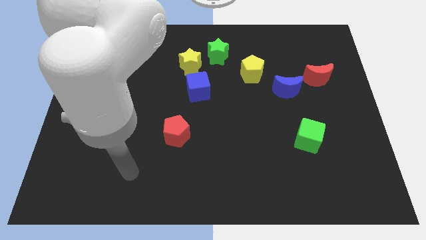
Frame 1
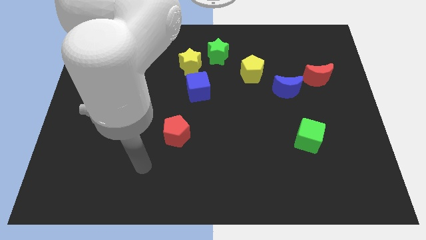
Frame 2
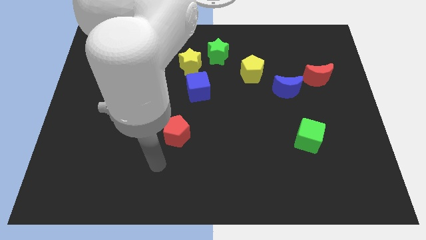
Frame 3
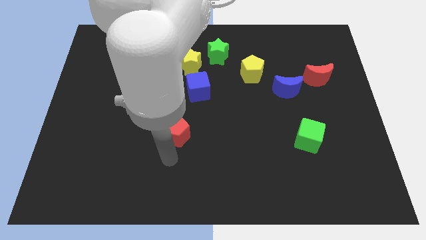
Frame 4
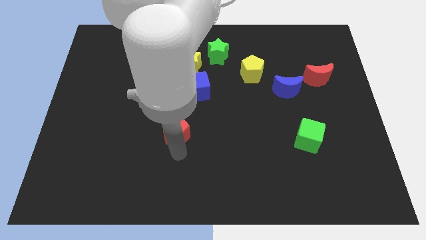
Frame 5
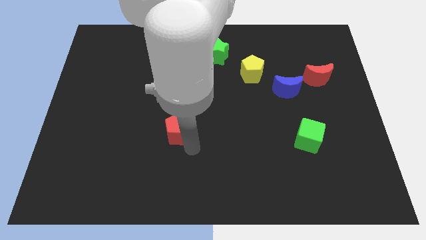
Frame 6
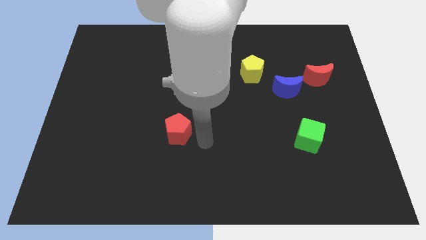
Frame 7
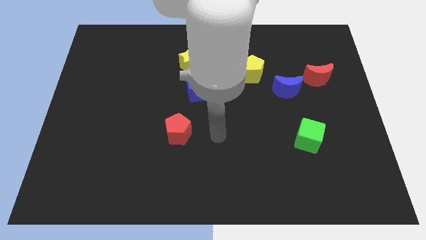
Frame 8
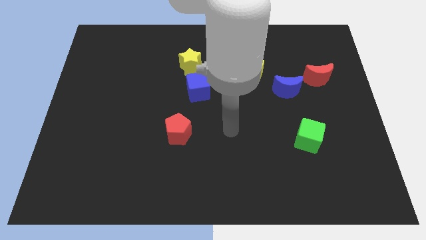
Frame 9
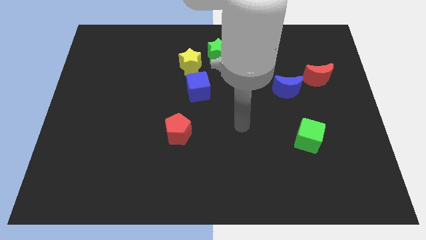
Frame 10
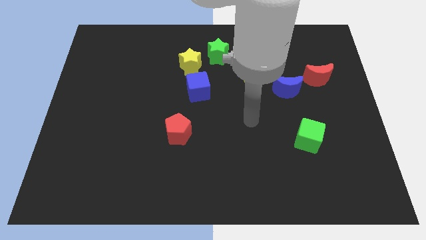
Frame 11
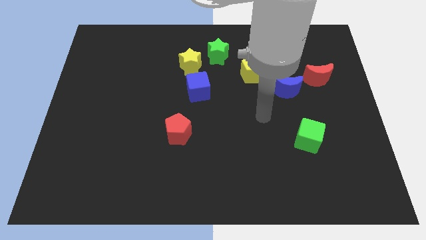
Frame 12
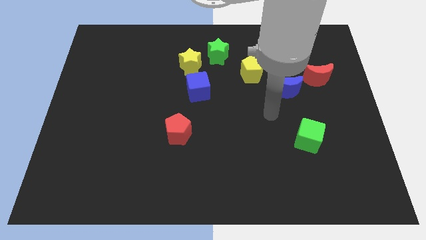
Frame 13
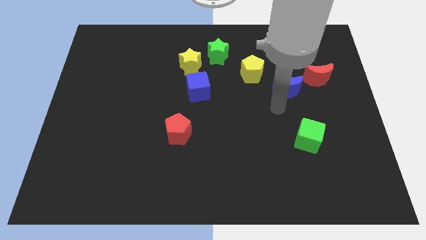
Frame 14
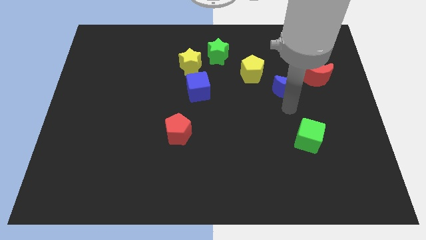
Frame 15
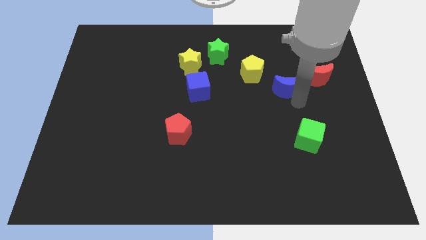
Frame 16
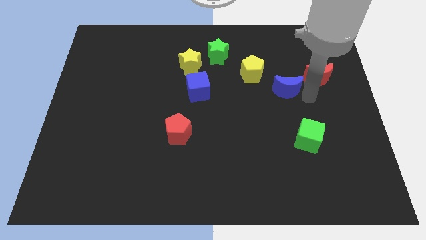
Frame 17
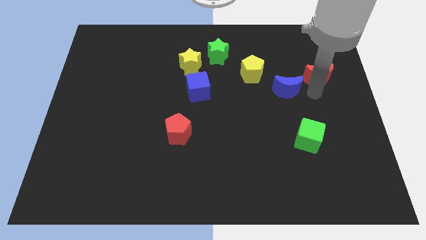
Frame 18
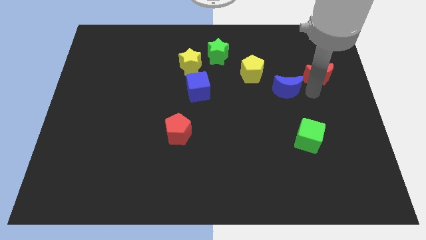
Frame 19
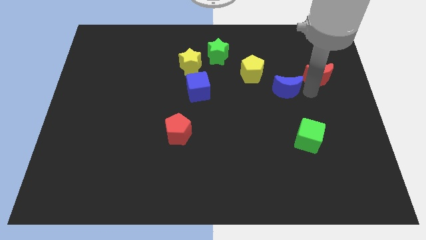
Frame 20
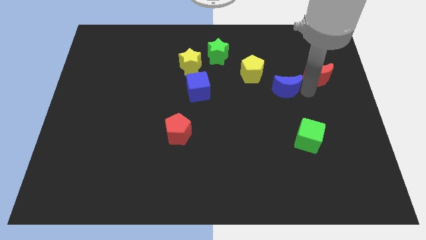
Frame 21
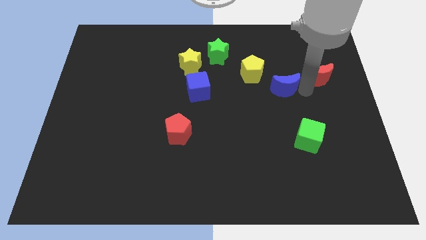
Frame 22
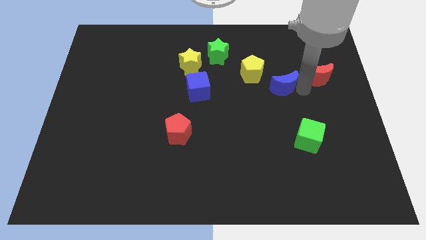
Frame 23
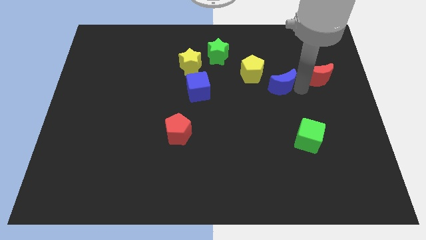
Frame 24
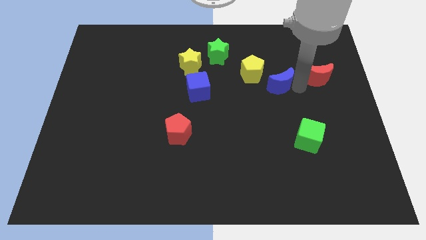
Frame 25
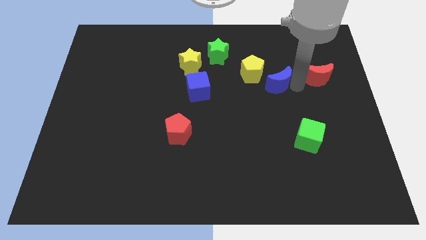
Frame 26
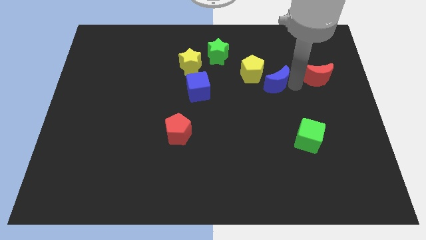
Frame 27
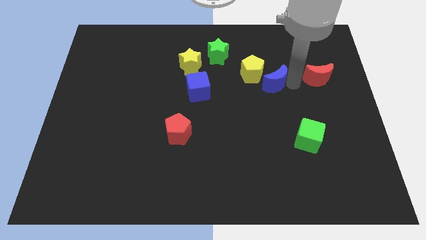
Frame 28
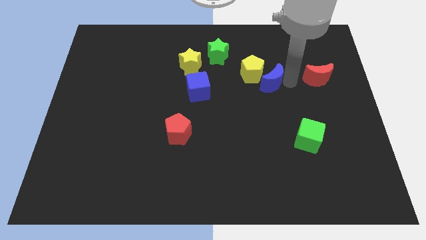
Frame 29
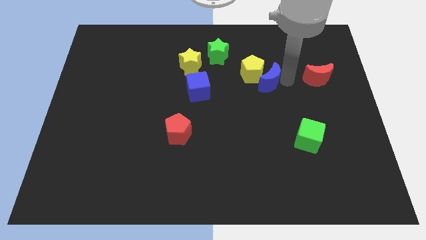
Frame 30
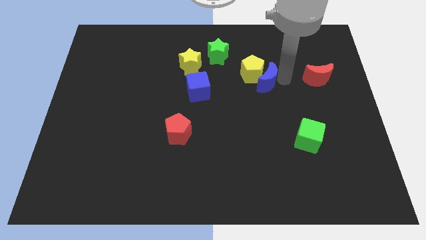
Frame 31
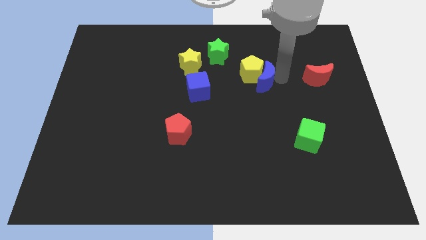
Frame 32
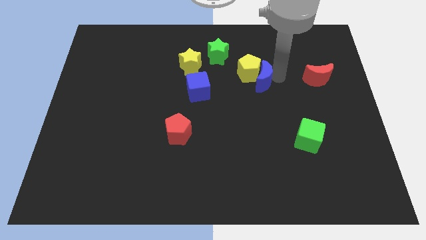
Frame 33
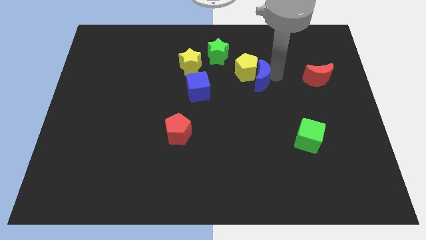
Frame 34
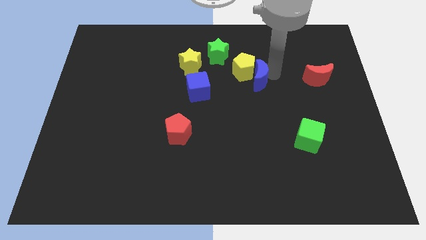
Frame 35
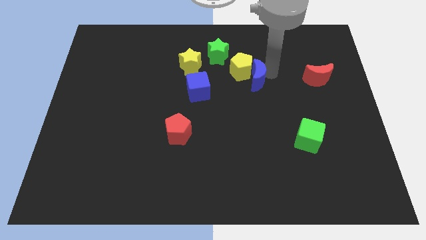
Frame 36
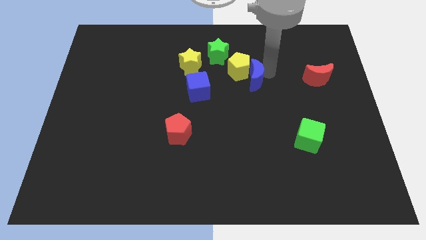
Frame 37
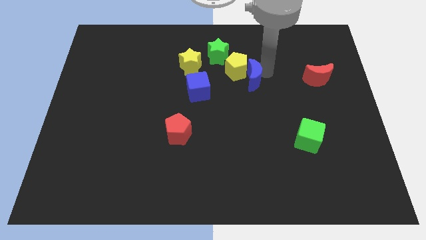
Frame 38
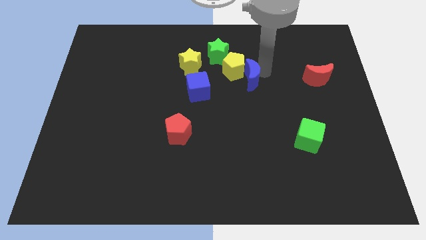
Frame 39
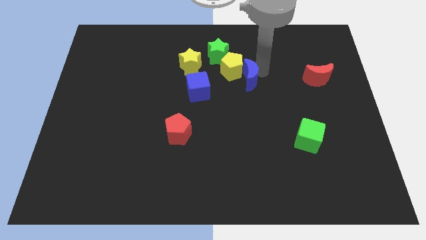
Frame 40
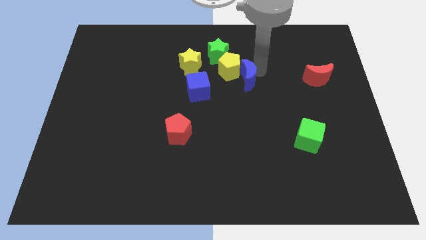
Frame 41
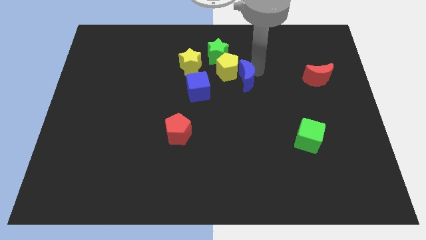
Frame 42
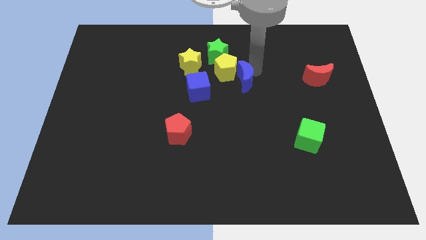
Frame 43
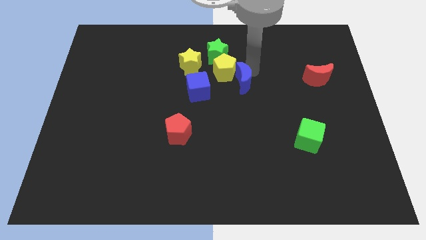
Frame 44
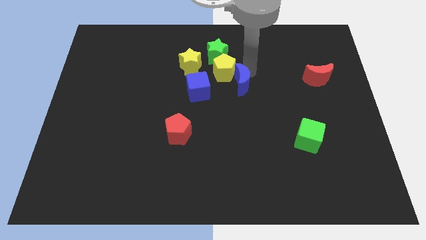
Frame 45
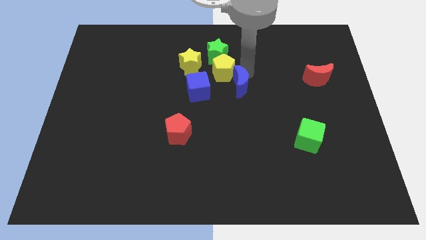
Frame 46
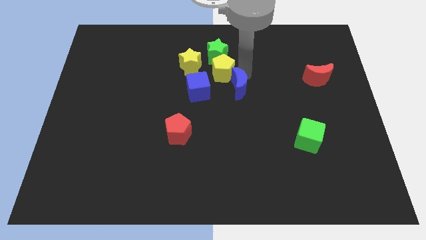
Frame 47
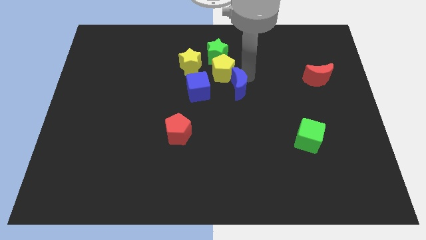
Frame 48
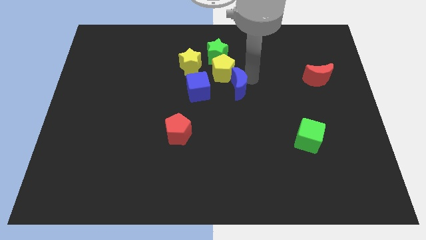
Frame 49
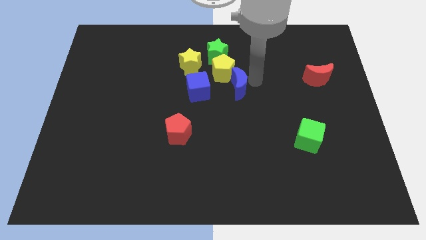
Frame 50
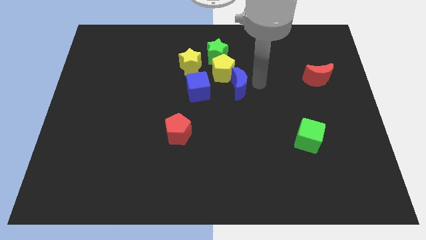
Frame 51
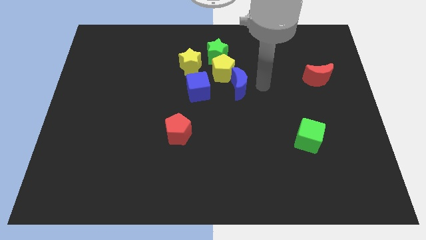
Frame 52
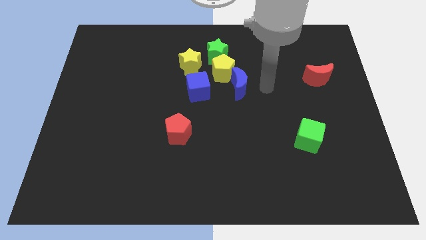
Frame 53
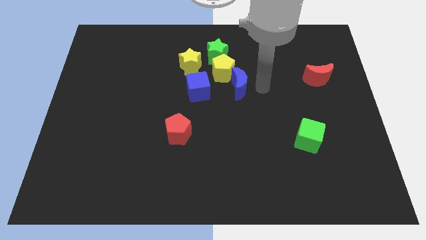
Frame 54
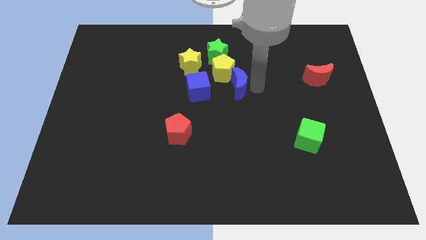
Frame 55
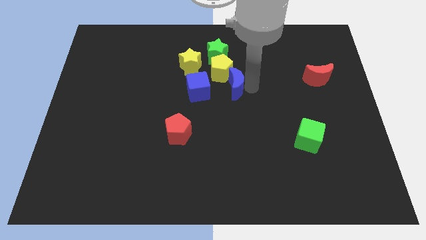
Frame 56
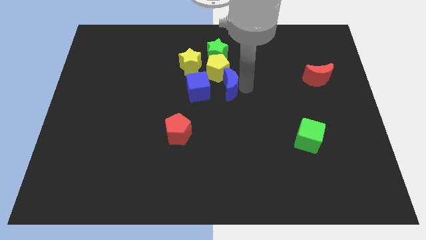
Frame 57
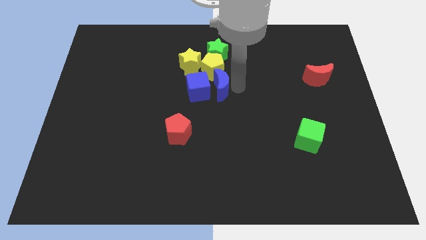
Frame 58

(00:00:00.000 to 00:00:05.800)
slide the blue moon close to the blue cube

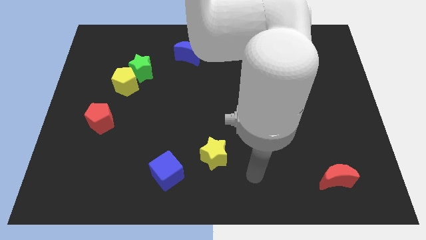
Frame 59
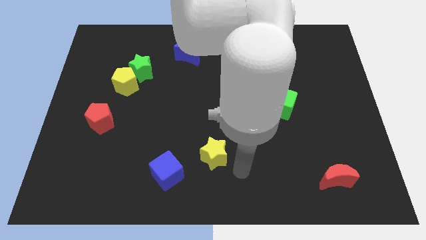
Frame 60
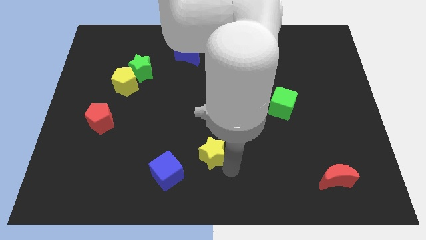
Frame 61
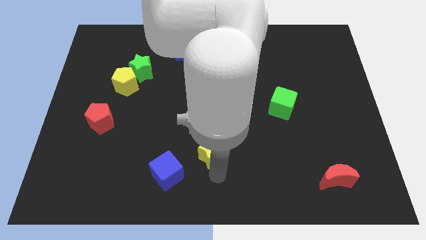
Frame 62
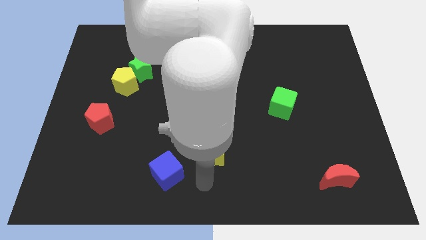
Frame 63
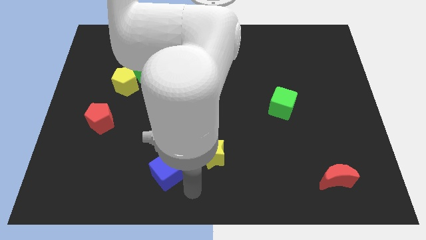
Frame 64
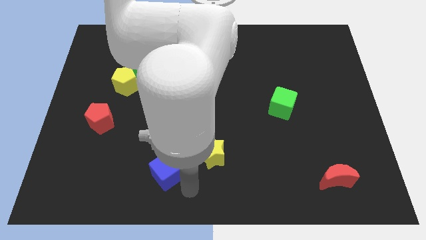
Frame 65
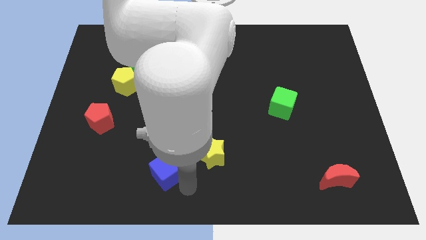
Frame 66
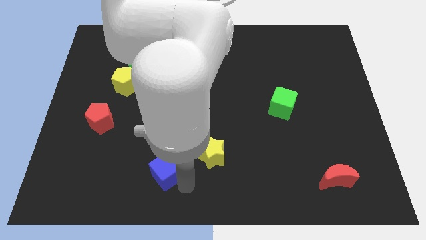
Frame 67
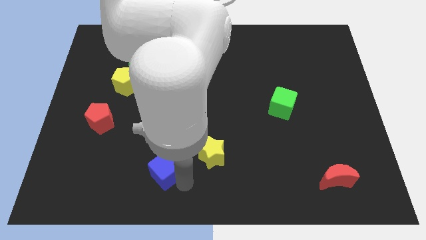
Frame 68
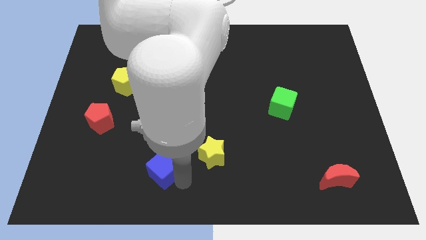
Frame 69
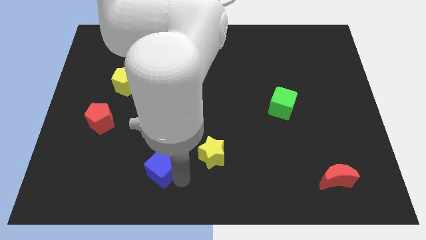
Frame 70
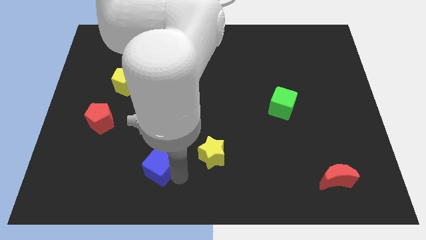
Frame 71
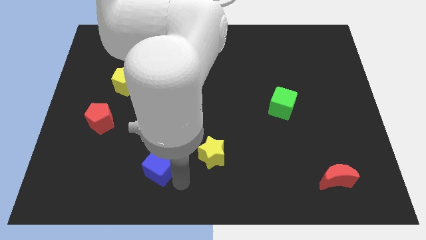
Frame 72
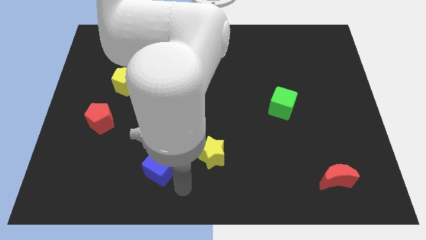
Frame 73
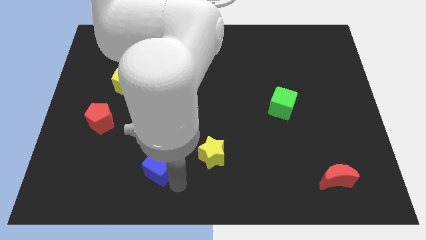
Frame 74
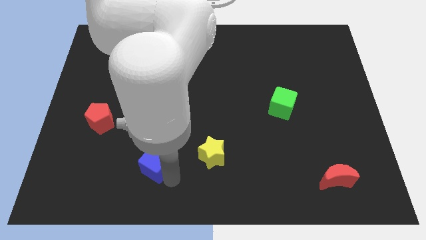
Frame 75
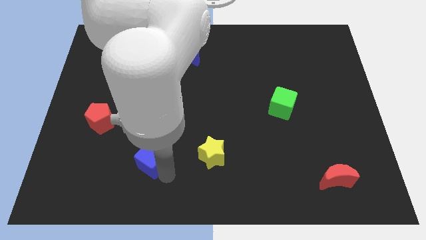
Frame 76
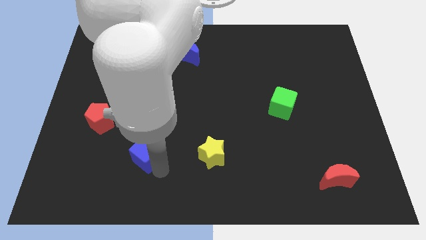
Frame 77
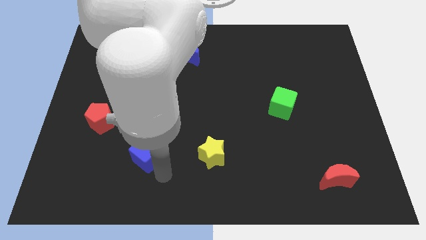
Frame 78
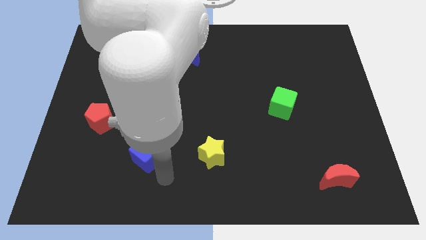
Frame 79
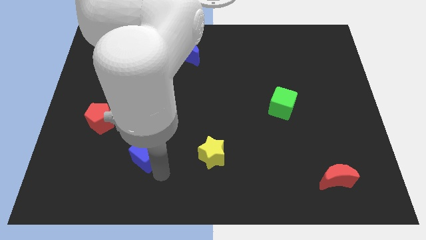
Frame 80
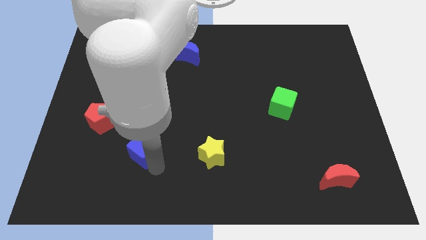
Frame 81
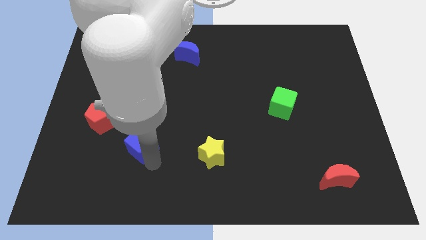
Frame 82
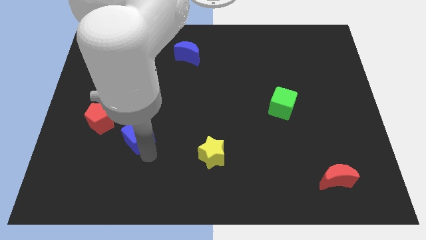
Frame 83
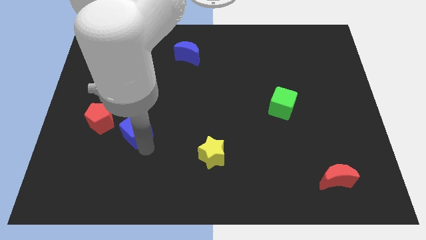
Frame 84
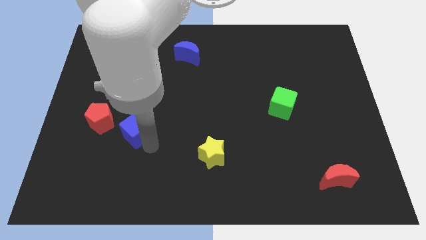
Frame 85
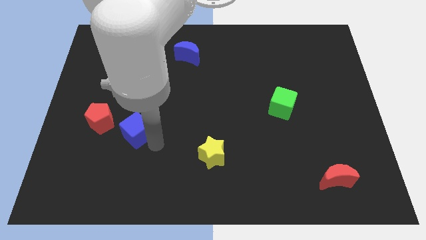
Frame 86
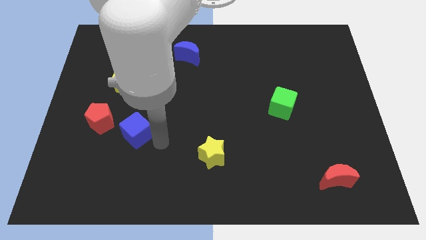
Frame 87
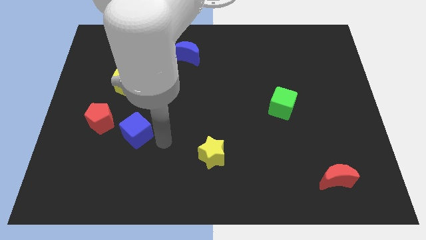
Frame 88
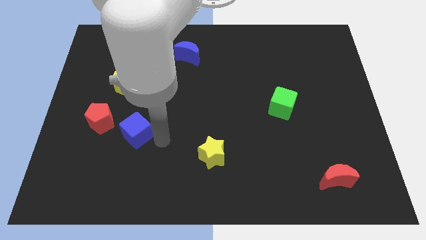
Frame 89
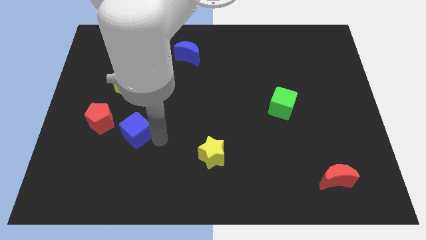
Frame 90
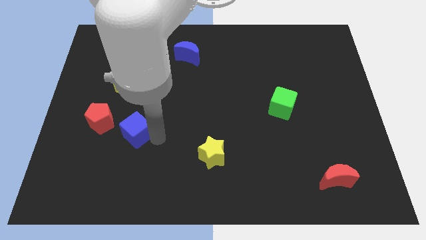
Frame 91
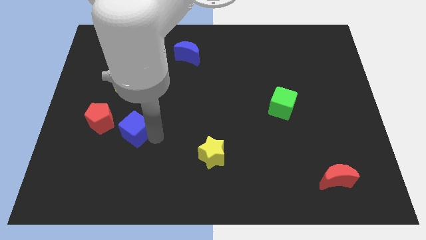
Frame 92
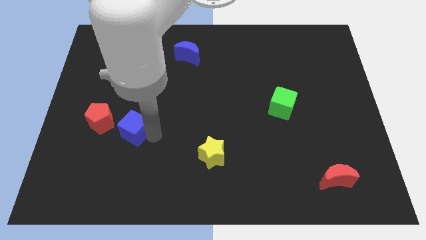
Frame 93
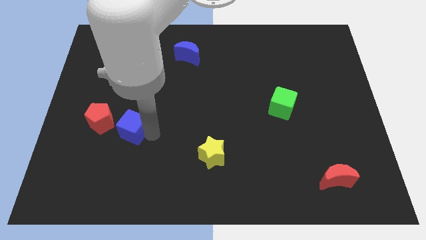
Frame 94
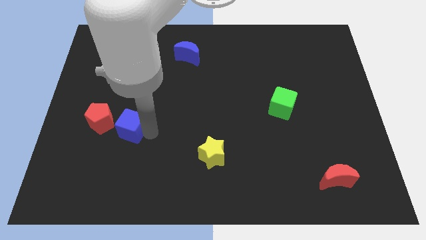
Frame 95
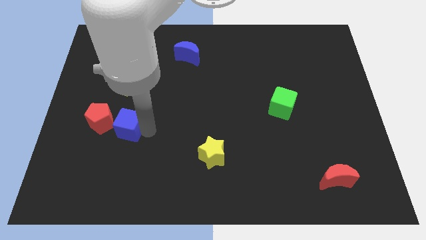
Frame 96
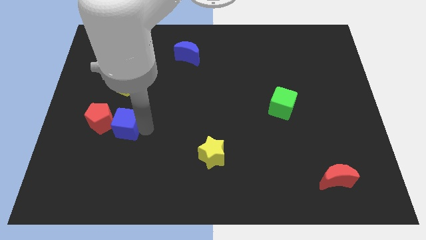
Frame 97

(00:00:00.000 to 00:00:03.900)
slide the blue cube next to the red pentagon
